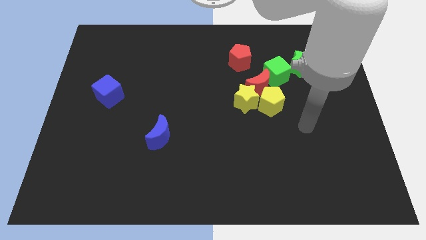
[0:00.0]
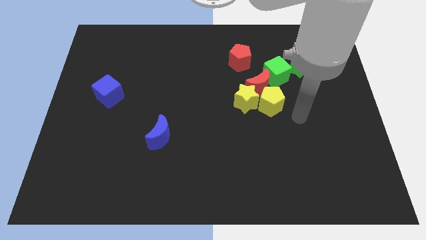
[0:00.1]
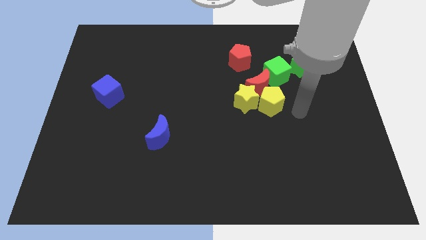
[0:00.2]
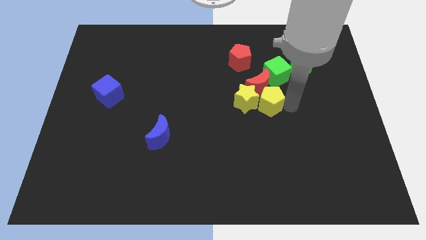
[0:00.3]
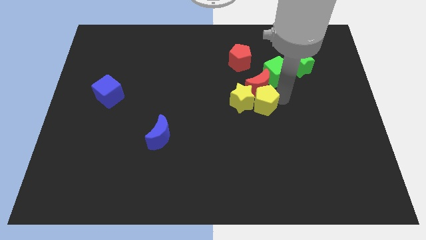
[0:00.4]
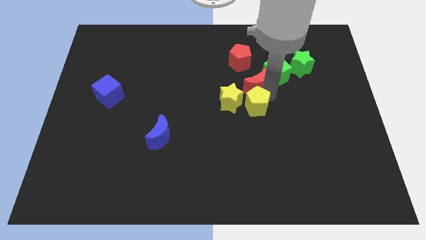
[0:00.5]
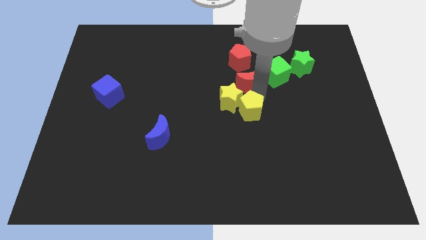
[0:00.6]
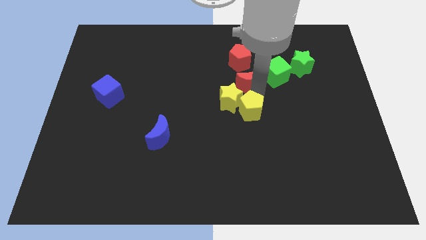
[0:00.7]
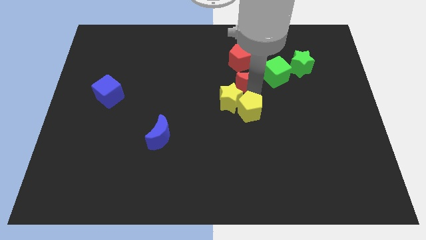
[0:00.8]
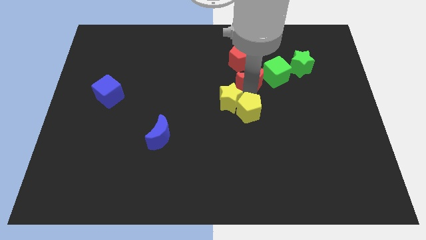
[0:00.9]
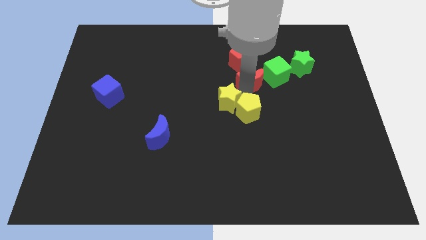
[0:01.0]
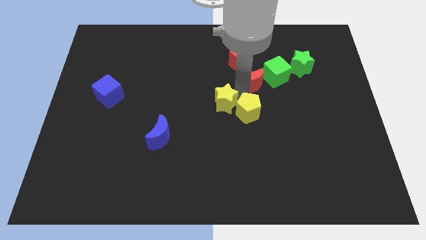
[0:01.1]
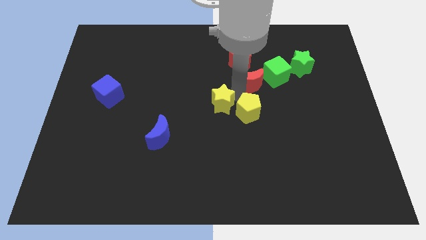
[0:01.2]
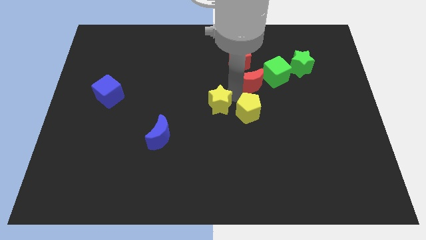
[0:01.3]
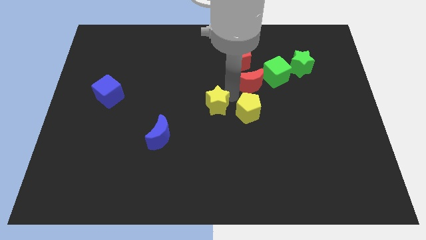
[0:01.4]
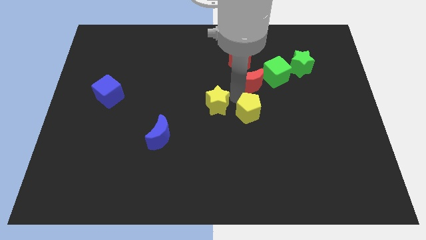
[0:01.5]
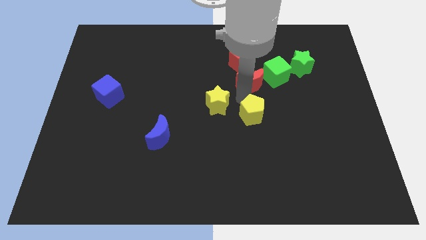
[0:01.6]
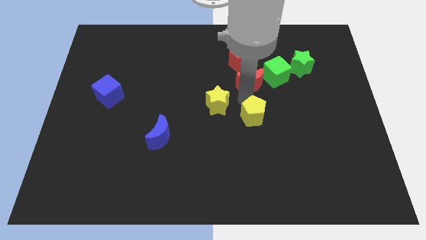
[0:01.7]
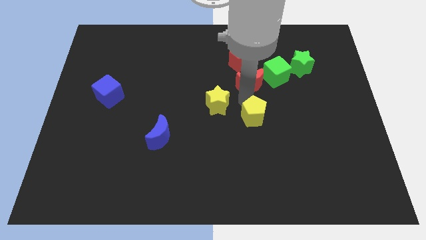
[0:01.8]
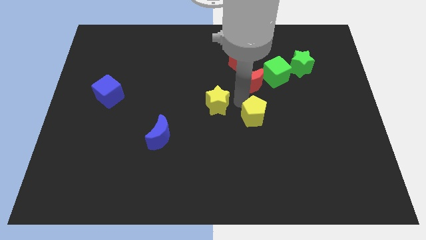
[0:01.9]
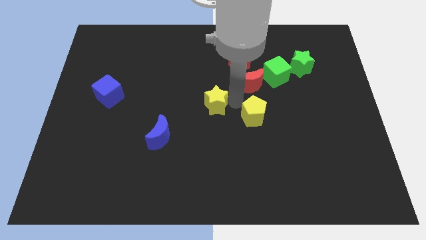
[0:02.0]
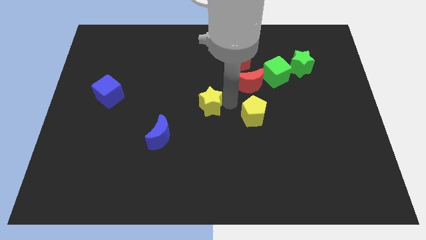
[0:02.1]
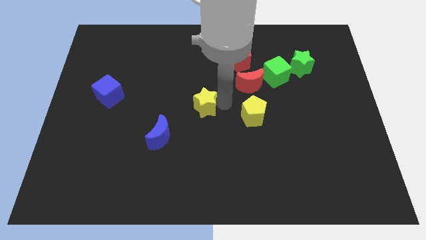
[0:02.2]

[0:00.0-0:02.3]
pull the yellow star apart from the red moon and yellow pentagon

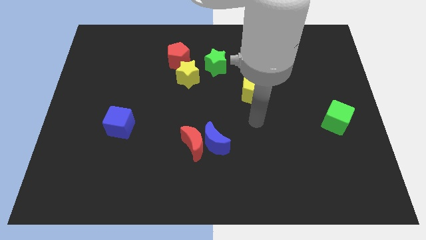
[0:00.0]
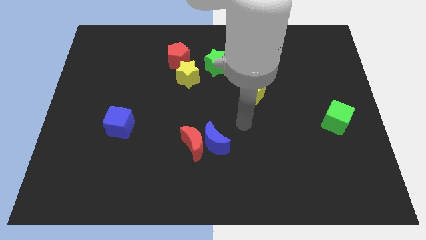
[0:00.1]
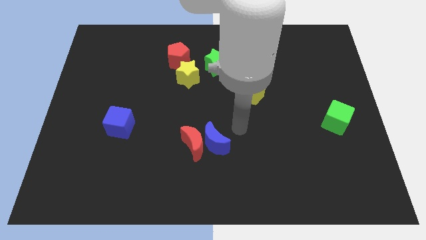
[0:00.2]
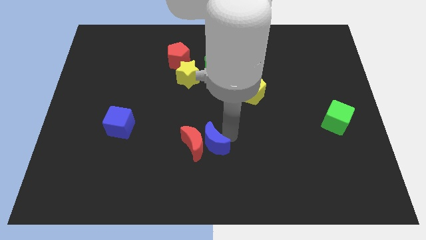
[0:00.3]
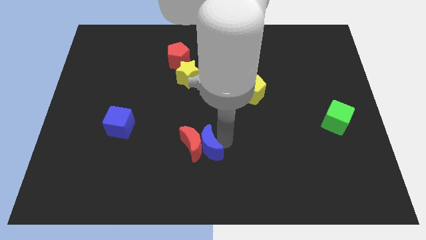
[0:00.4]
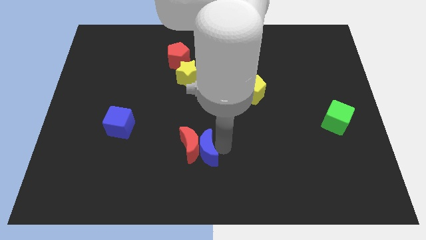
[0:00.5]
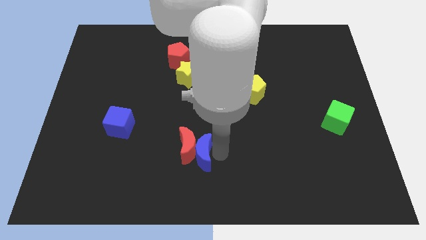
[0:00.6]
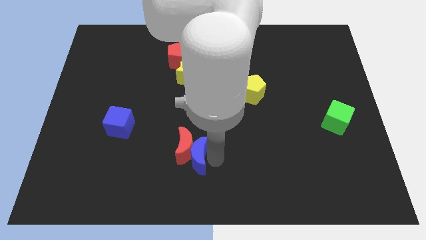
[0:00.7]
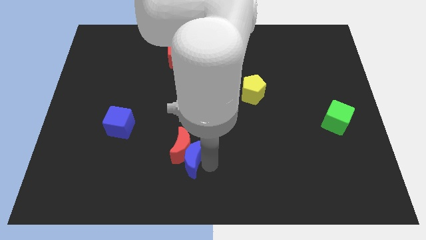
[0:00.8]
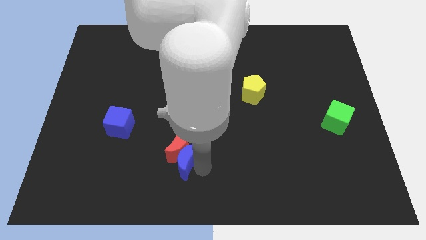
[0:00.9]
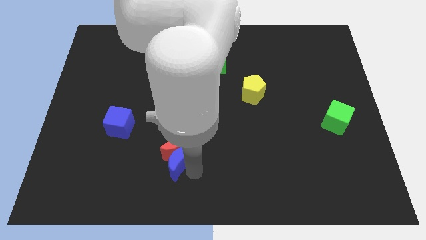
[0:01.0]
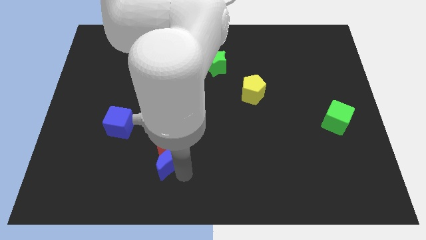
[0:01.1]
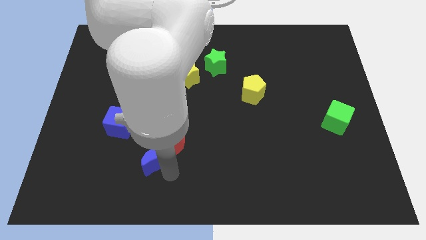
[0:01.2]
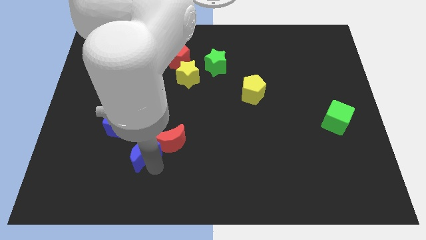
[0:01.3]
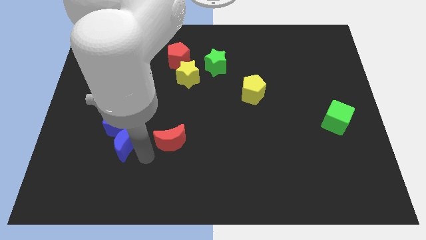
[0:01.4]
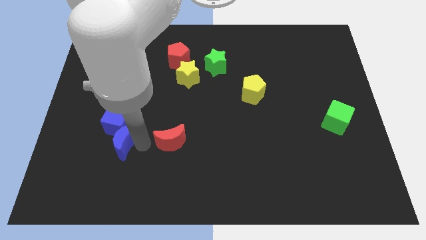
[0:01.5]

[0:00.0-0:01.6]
move the red moon away from the blue moon

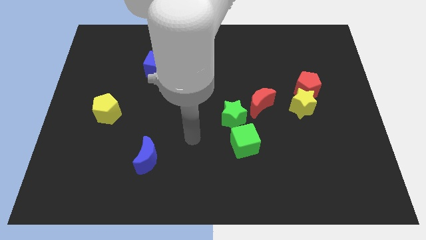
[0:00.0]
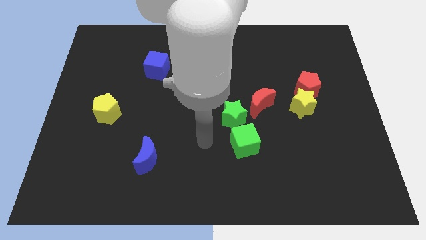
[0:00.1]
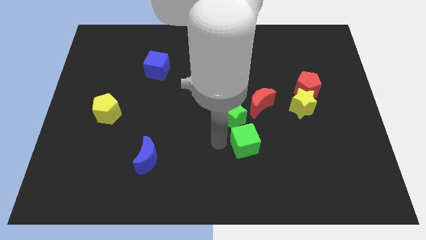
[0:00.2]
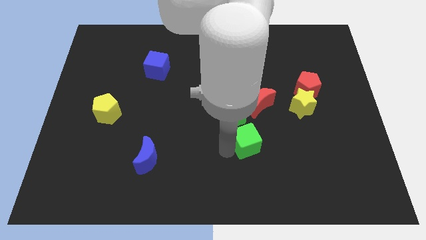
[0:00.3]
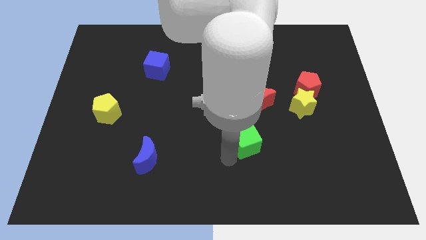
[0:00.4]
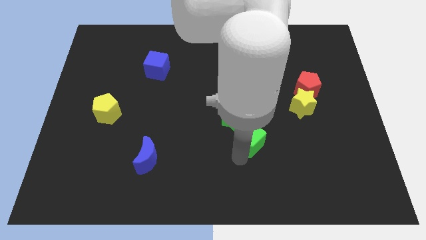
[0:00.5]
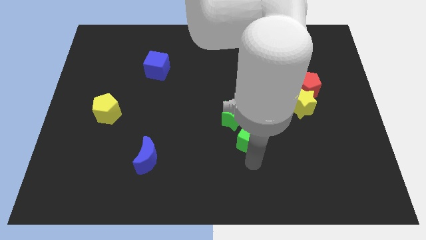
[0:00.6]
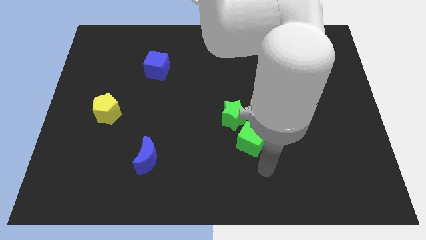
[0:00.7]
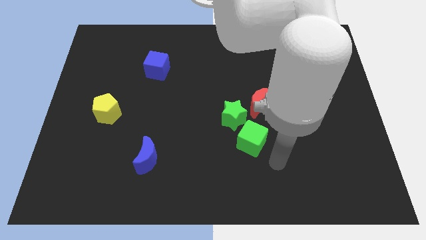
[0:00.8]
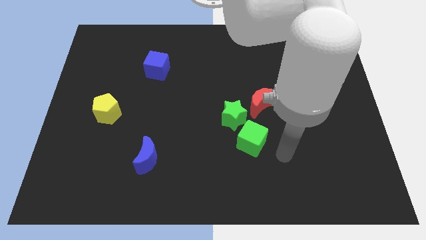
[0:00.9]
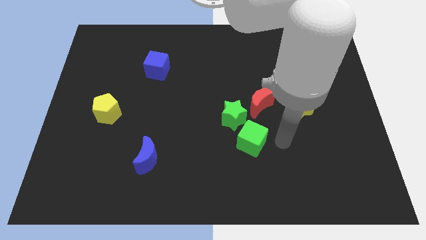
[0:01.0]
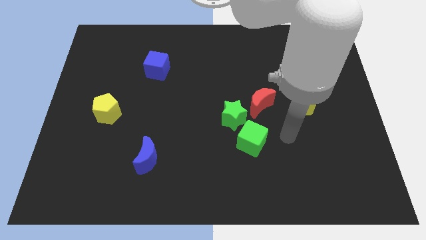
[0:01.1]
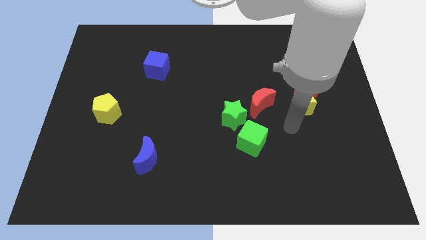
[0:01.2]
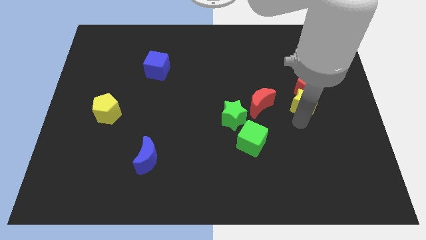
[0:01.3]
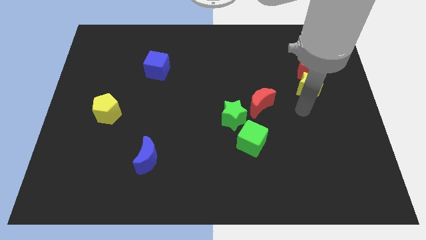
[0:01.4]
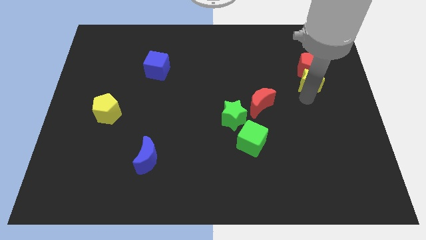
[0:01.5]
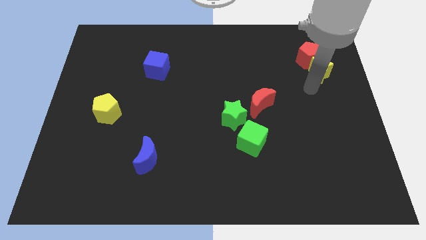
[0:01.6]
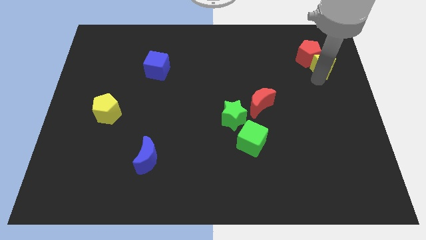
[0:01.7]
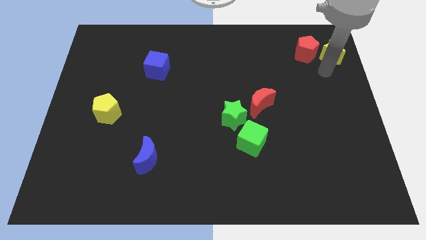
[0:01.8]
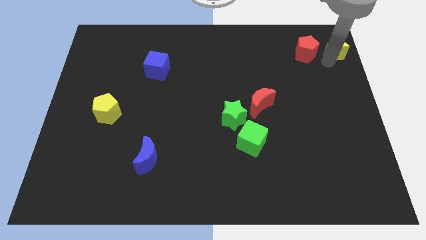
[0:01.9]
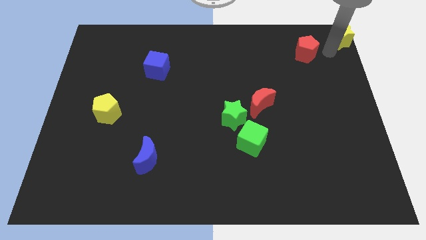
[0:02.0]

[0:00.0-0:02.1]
move the red pentagon away from the yellow star

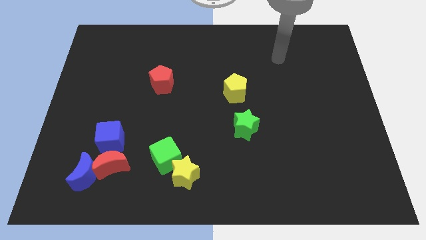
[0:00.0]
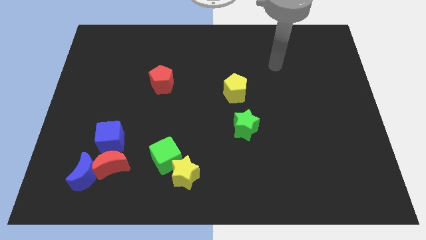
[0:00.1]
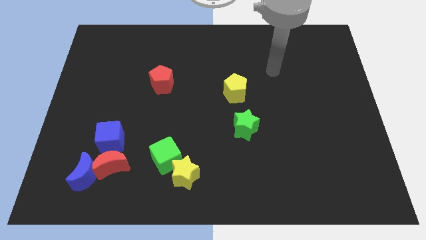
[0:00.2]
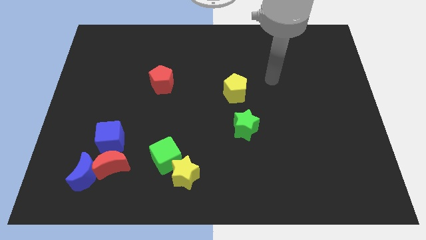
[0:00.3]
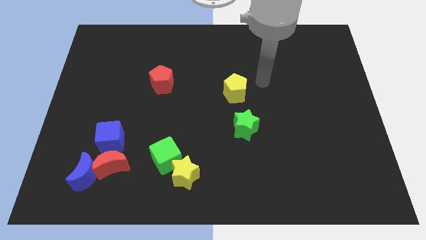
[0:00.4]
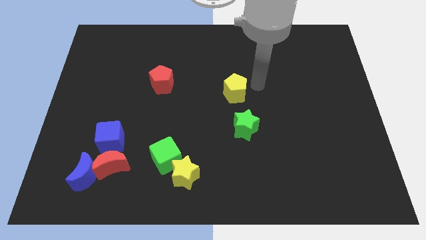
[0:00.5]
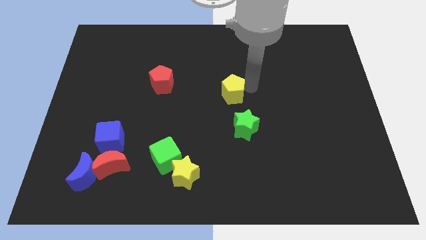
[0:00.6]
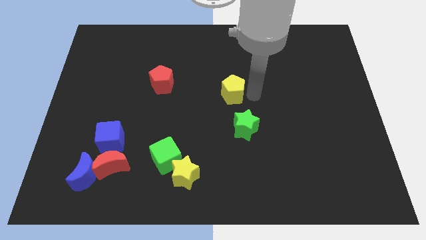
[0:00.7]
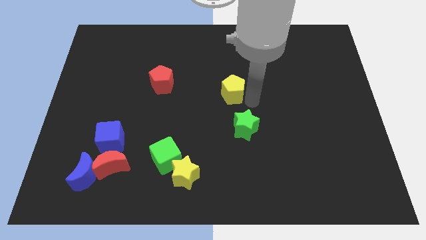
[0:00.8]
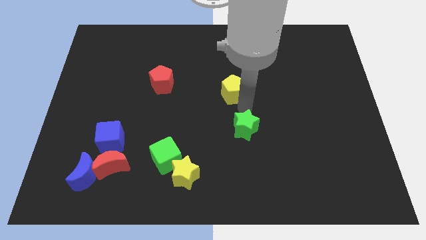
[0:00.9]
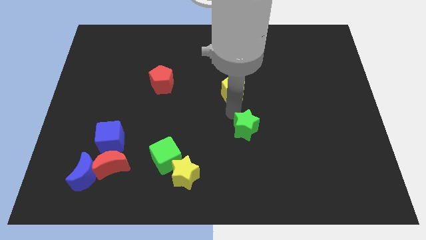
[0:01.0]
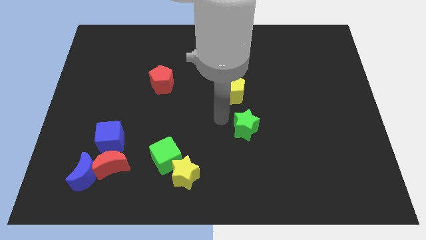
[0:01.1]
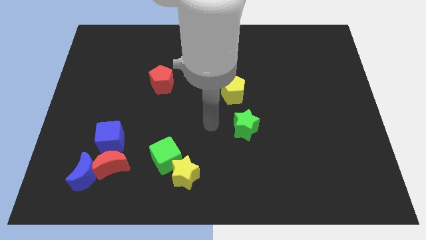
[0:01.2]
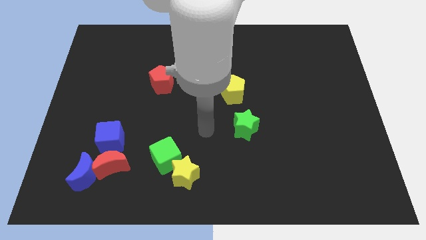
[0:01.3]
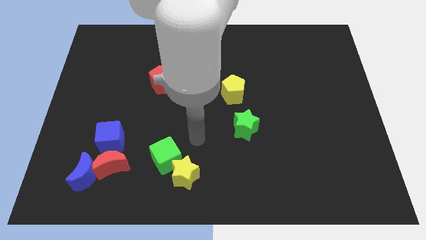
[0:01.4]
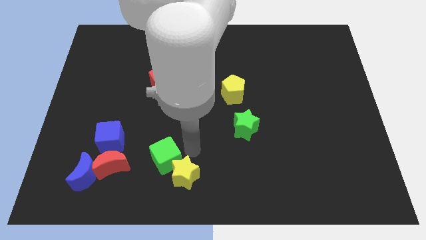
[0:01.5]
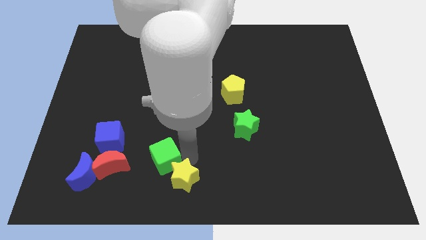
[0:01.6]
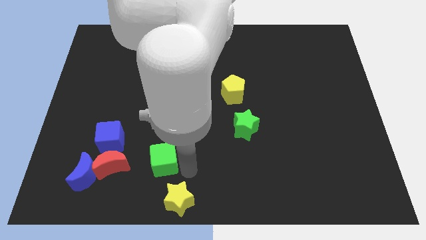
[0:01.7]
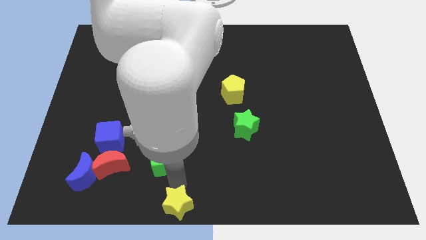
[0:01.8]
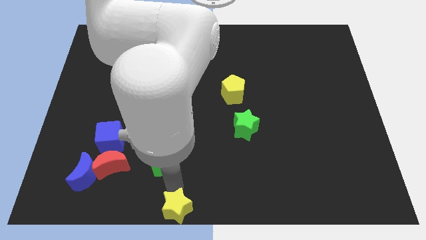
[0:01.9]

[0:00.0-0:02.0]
pull the green cube apart from the yellow star

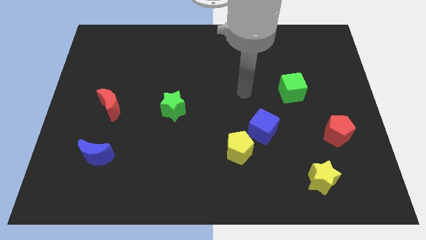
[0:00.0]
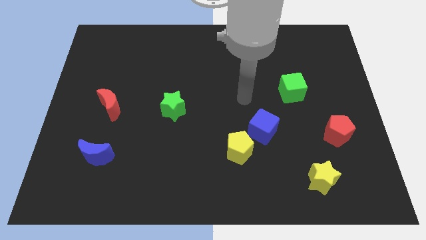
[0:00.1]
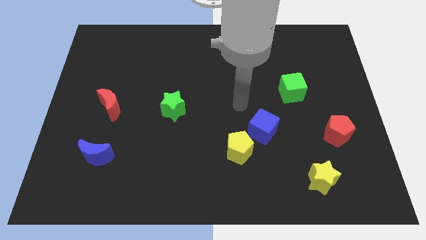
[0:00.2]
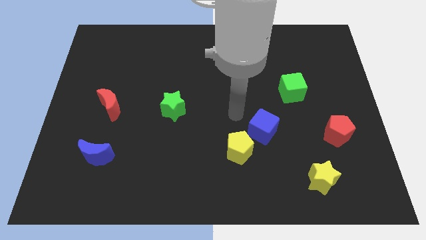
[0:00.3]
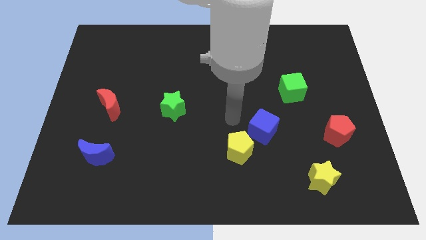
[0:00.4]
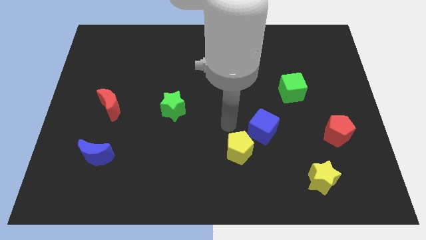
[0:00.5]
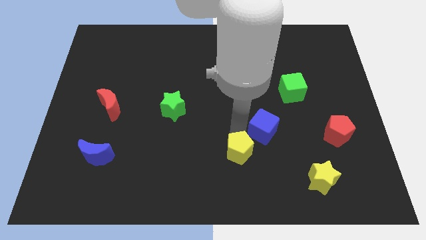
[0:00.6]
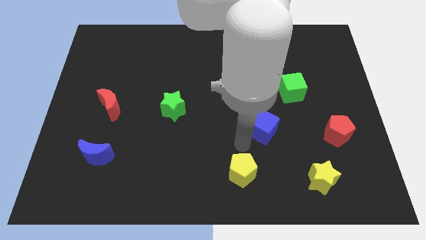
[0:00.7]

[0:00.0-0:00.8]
move the blue cube away from the yellow pentagon

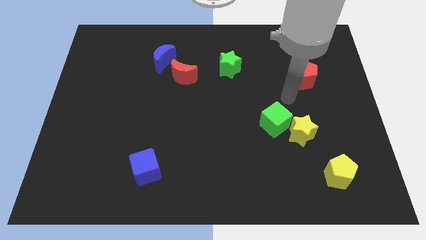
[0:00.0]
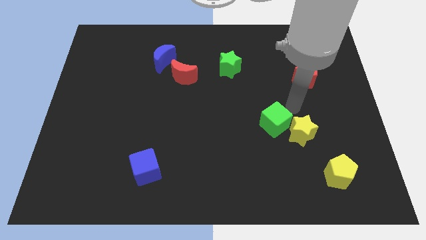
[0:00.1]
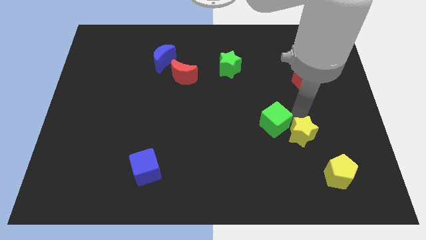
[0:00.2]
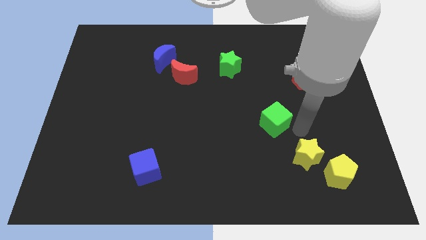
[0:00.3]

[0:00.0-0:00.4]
separate the green cube from the yellow star
